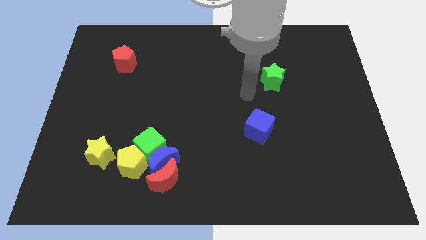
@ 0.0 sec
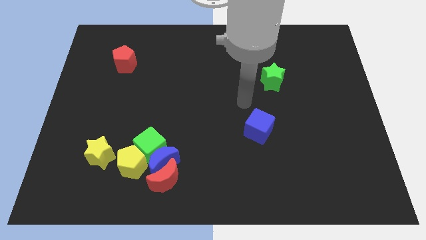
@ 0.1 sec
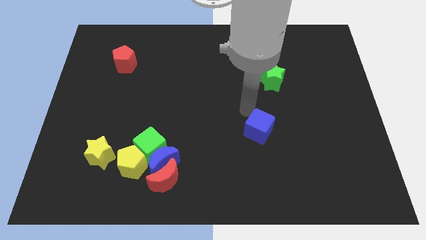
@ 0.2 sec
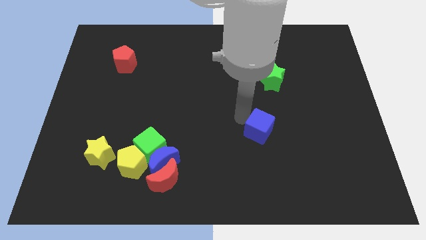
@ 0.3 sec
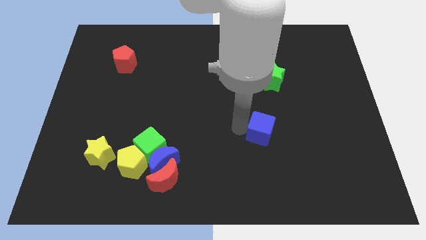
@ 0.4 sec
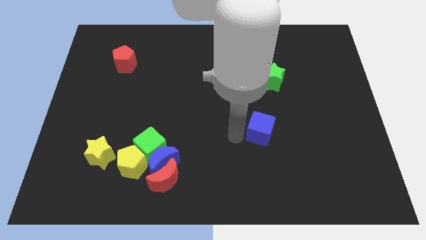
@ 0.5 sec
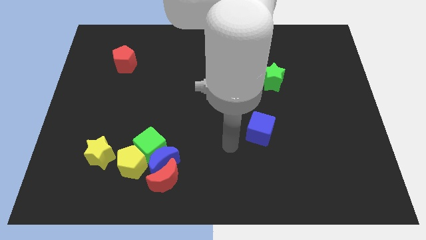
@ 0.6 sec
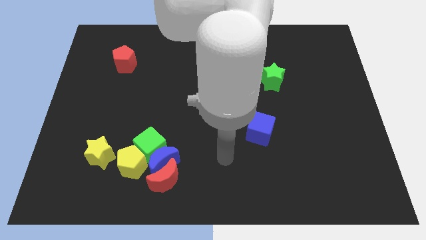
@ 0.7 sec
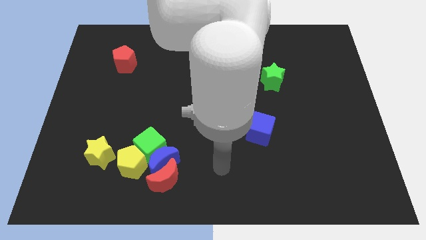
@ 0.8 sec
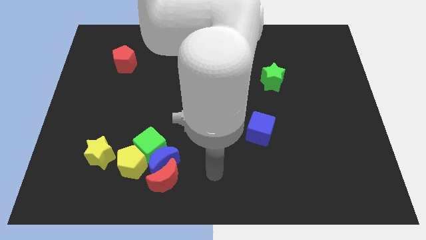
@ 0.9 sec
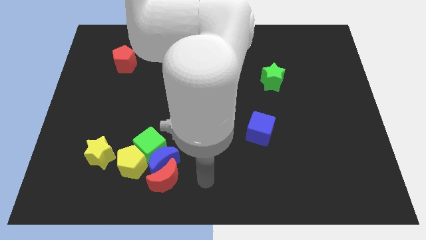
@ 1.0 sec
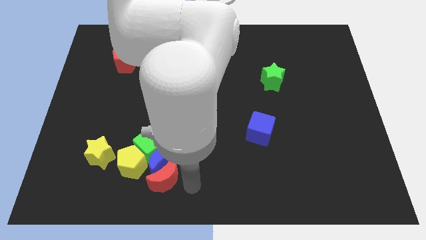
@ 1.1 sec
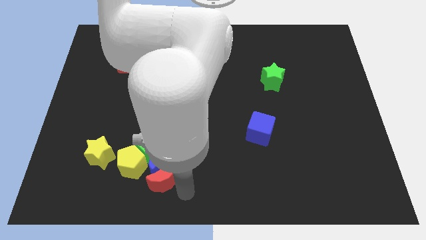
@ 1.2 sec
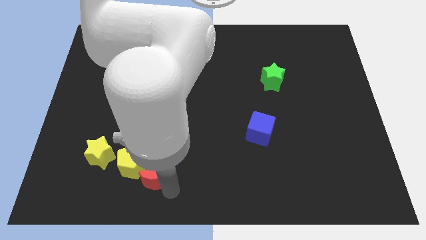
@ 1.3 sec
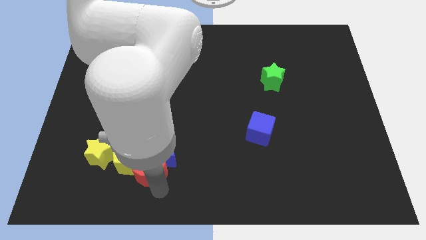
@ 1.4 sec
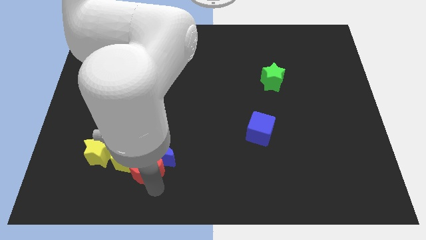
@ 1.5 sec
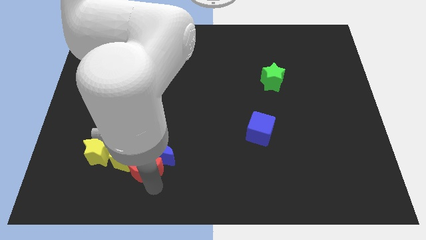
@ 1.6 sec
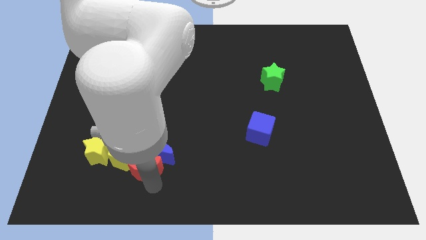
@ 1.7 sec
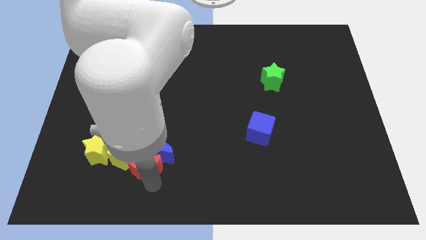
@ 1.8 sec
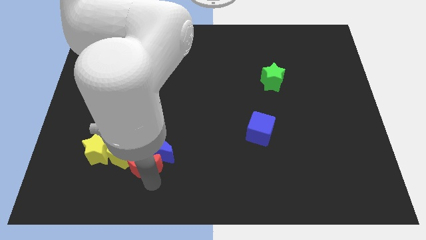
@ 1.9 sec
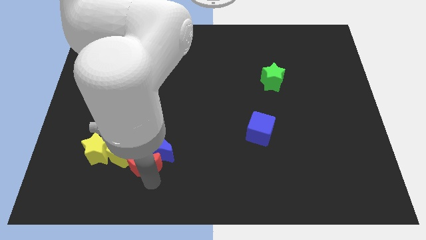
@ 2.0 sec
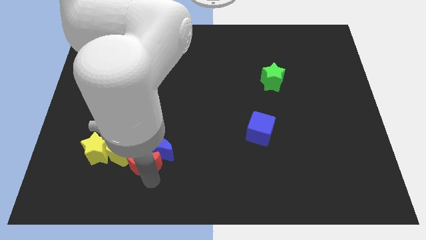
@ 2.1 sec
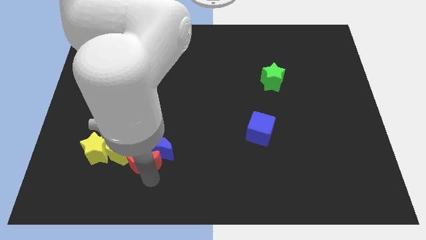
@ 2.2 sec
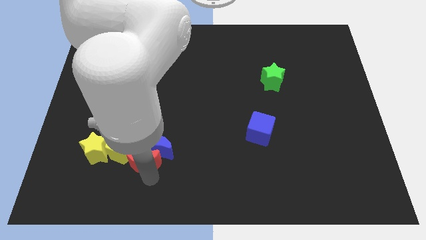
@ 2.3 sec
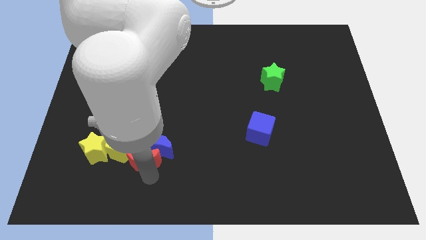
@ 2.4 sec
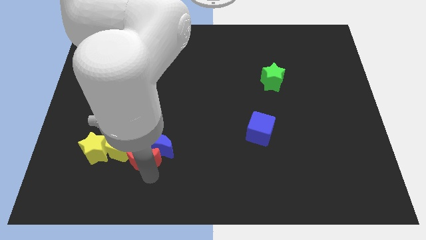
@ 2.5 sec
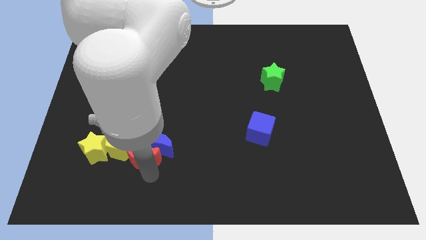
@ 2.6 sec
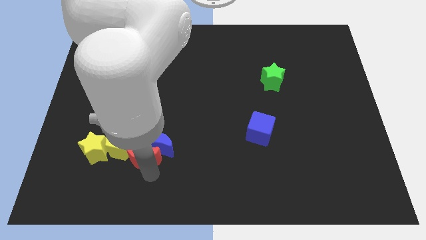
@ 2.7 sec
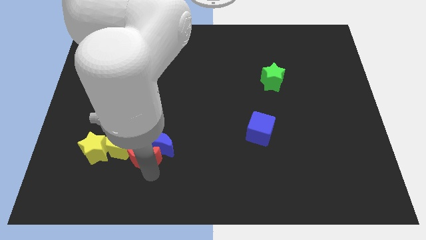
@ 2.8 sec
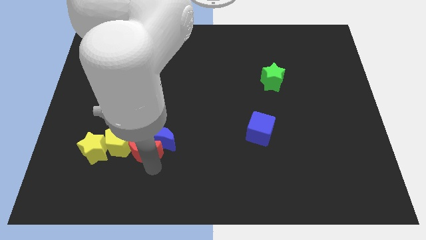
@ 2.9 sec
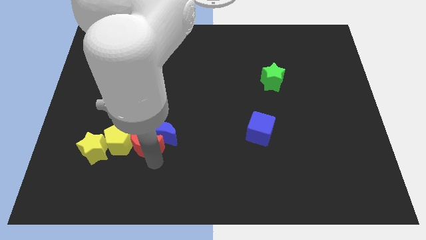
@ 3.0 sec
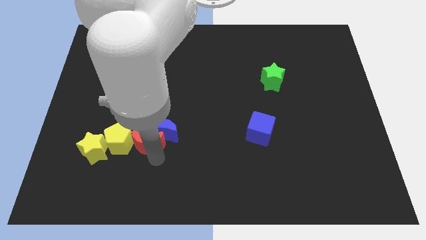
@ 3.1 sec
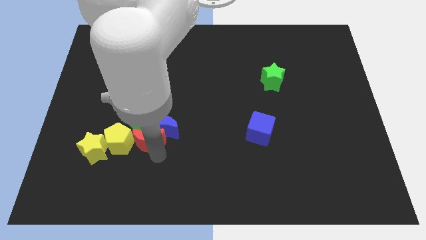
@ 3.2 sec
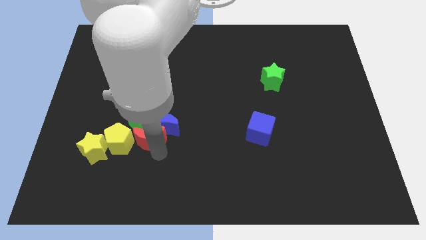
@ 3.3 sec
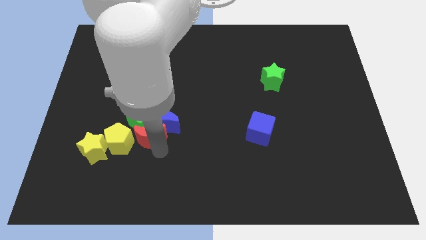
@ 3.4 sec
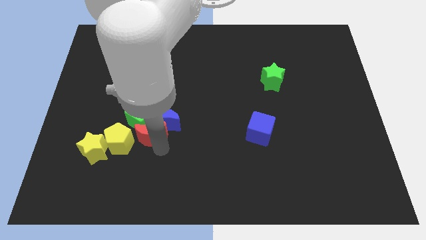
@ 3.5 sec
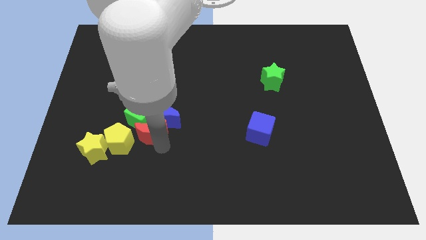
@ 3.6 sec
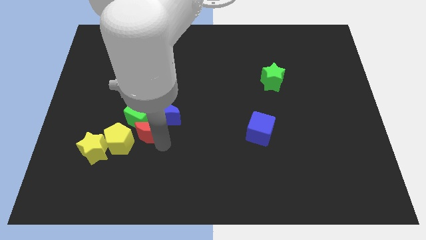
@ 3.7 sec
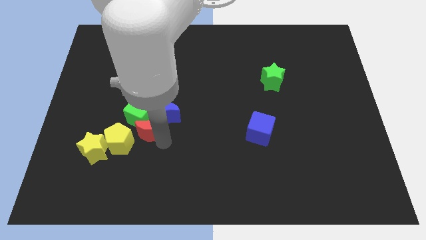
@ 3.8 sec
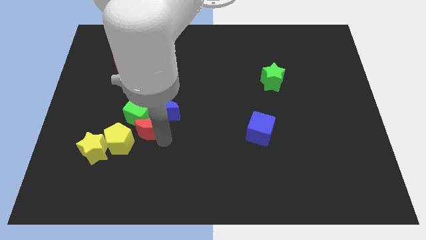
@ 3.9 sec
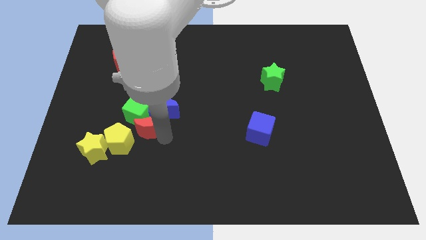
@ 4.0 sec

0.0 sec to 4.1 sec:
push the blue moon a bit diagonally up and to the left

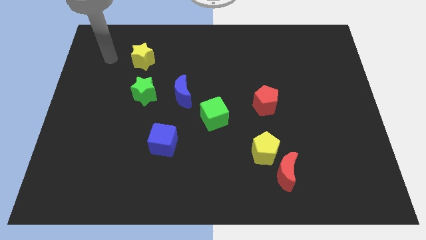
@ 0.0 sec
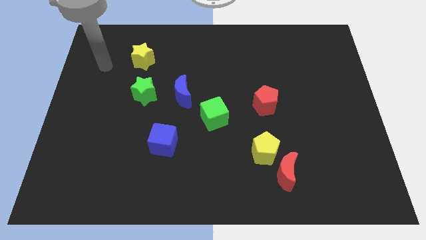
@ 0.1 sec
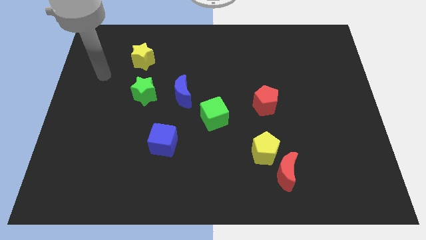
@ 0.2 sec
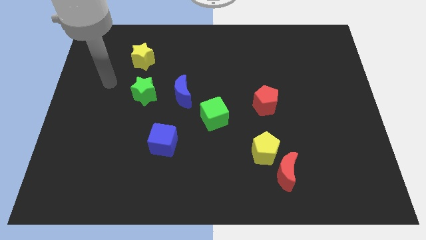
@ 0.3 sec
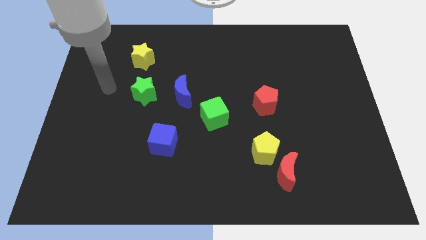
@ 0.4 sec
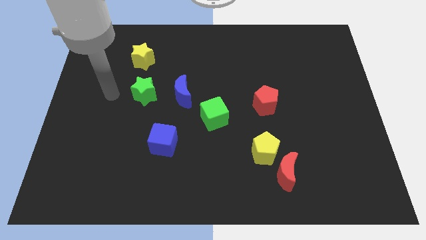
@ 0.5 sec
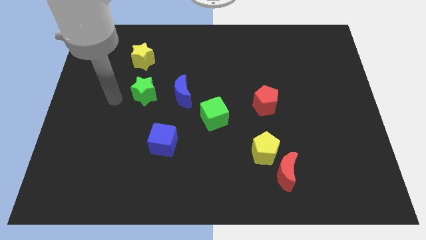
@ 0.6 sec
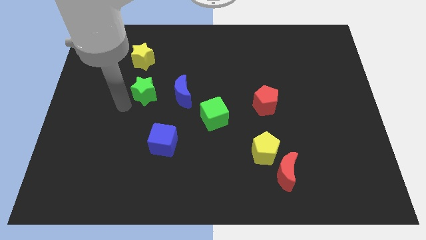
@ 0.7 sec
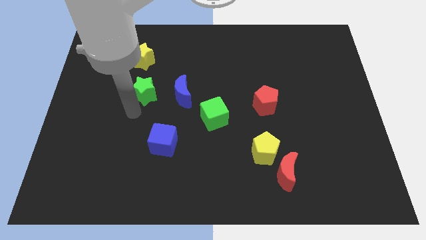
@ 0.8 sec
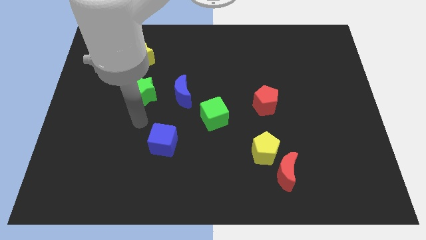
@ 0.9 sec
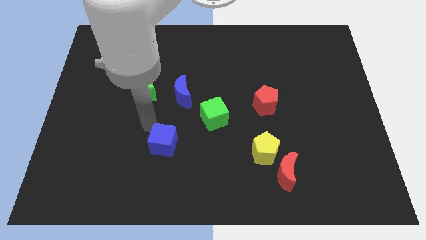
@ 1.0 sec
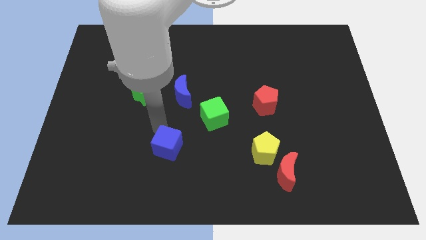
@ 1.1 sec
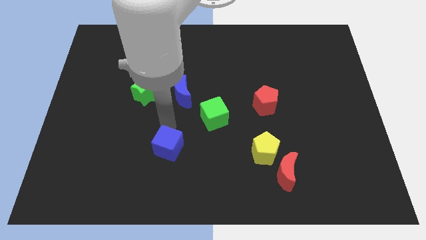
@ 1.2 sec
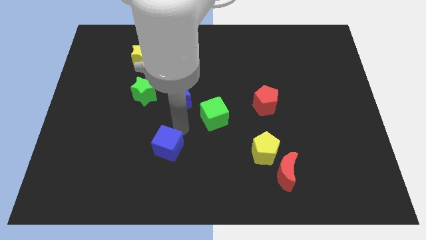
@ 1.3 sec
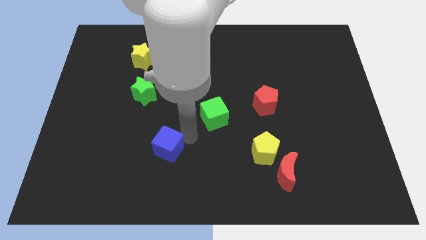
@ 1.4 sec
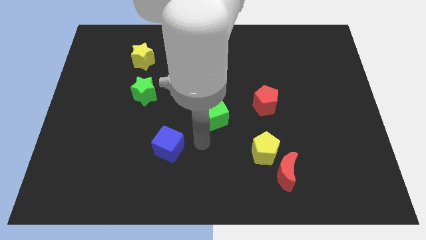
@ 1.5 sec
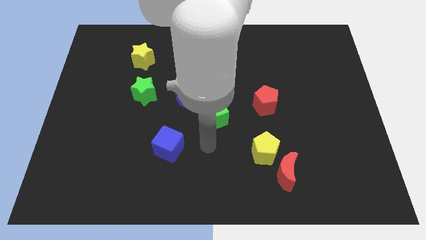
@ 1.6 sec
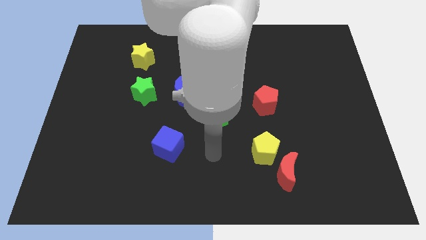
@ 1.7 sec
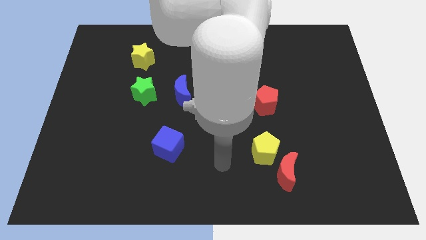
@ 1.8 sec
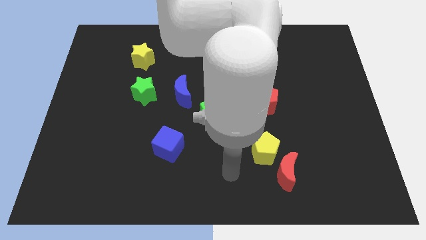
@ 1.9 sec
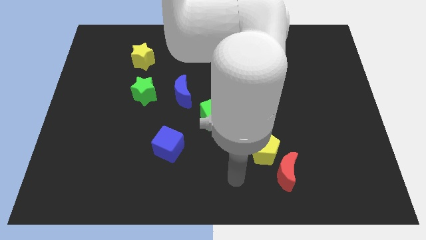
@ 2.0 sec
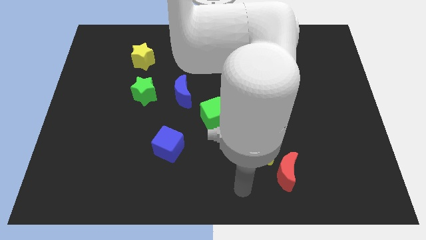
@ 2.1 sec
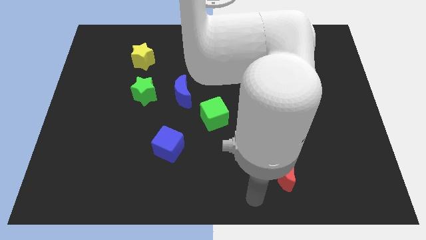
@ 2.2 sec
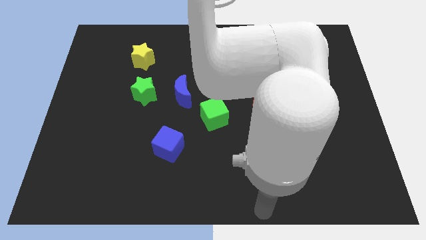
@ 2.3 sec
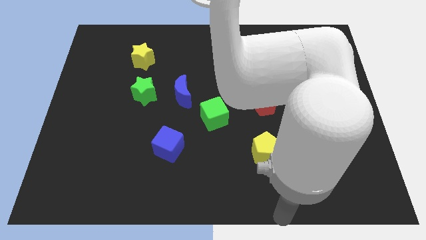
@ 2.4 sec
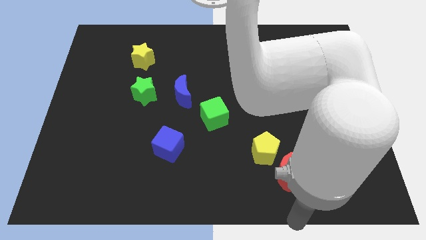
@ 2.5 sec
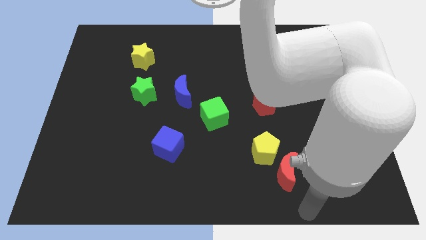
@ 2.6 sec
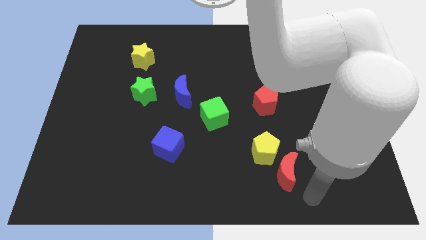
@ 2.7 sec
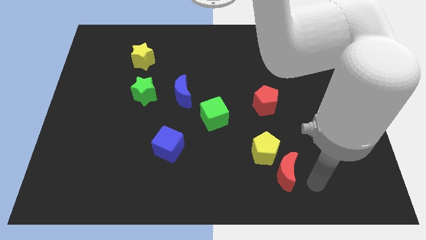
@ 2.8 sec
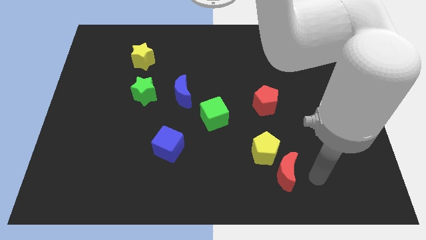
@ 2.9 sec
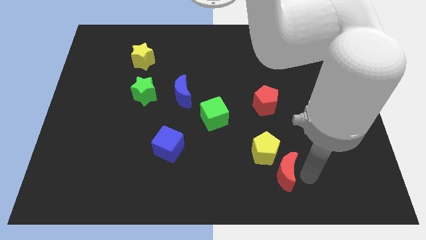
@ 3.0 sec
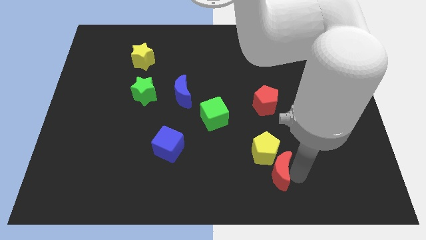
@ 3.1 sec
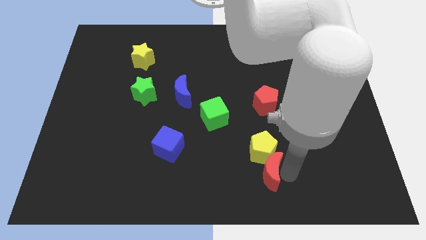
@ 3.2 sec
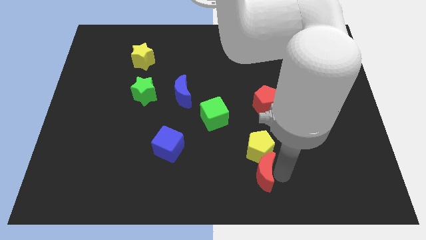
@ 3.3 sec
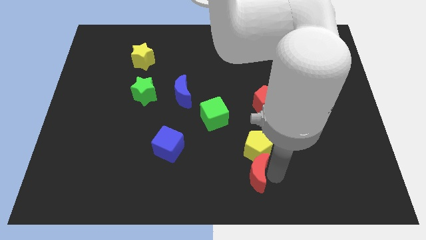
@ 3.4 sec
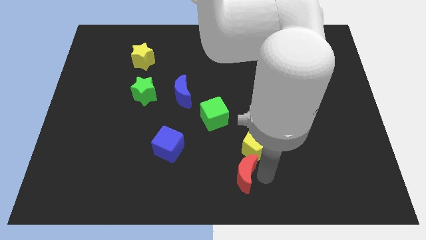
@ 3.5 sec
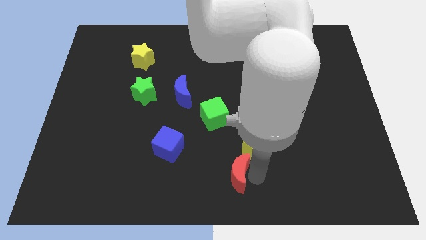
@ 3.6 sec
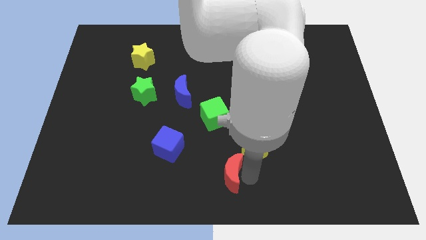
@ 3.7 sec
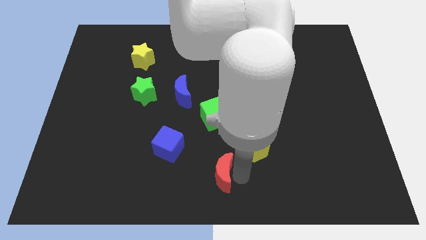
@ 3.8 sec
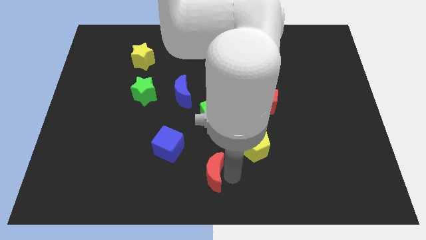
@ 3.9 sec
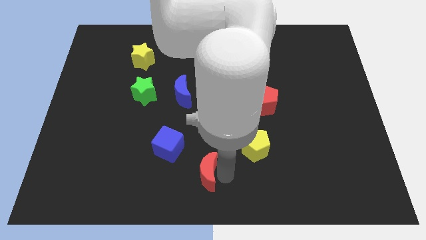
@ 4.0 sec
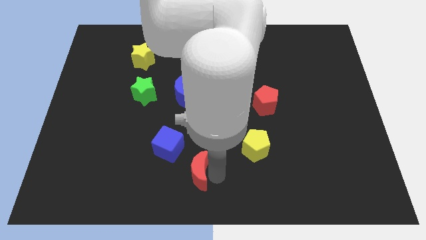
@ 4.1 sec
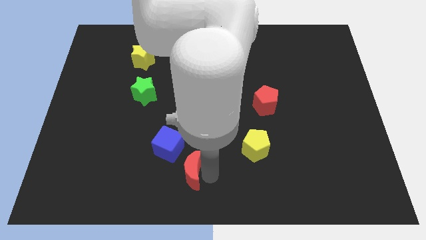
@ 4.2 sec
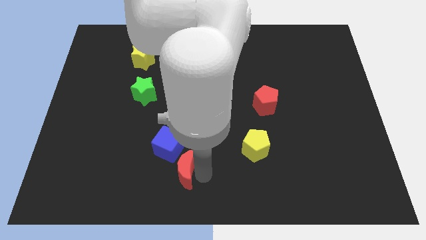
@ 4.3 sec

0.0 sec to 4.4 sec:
slide the red moon left
